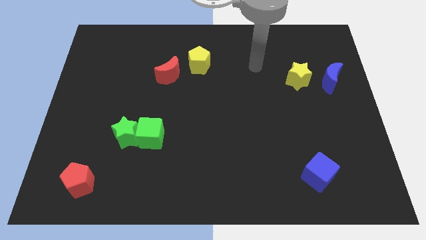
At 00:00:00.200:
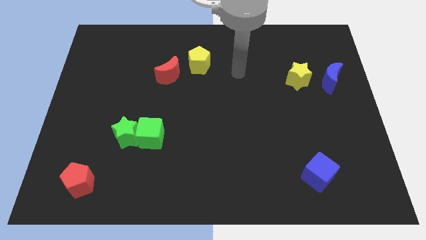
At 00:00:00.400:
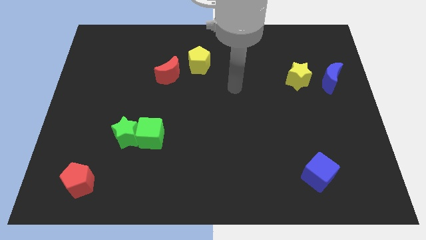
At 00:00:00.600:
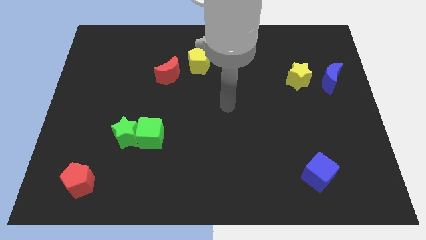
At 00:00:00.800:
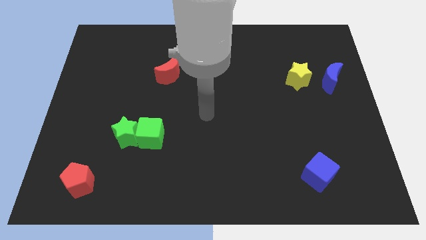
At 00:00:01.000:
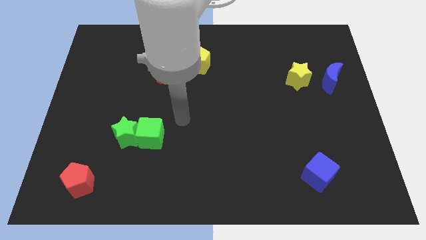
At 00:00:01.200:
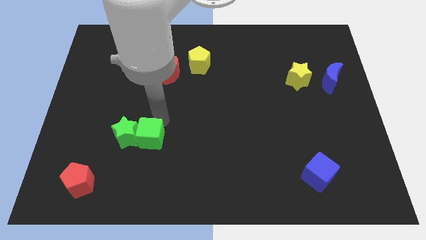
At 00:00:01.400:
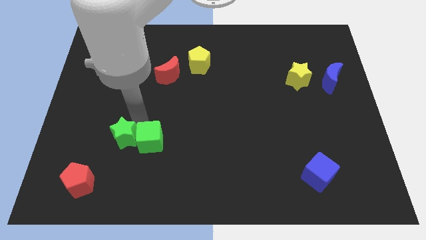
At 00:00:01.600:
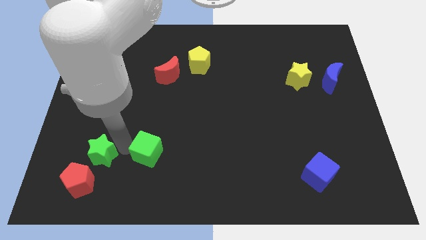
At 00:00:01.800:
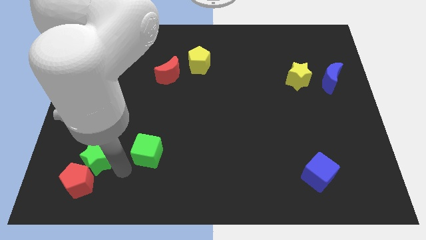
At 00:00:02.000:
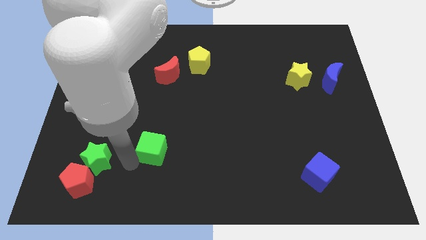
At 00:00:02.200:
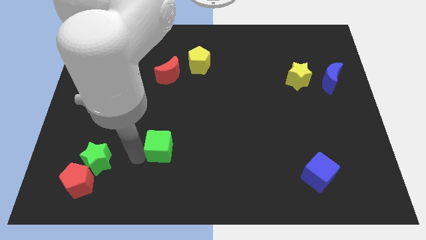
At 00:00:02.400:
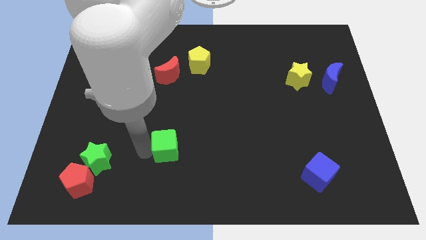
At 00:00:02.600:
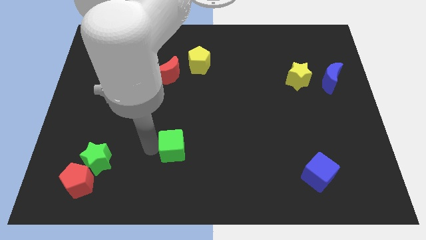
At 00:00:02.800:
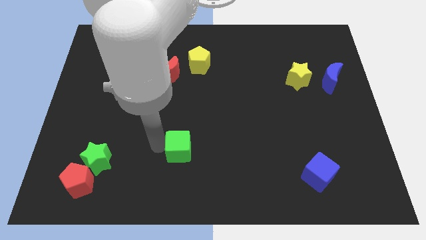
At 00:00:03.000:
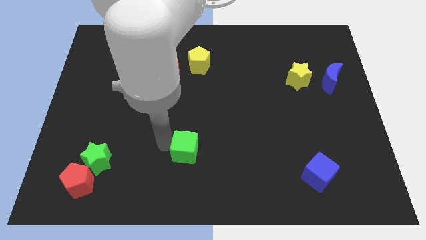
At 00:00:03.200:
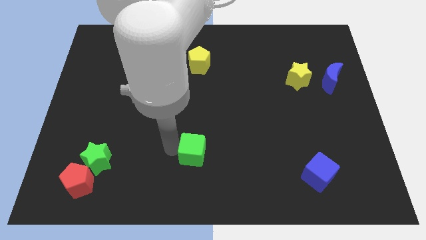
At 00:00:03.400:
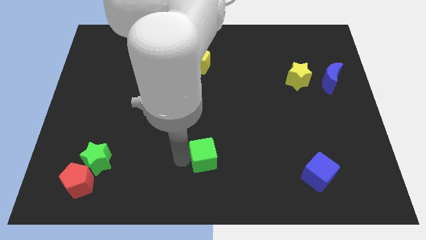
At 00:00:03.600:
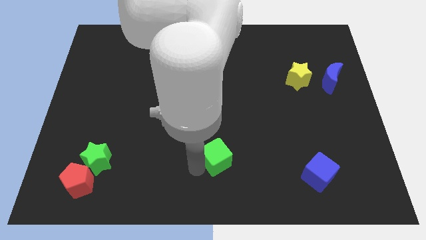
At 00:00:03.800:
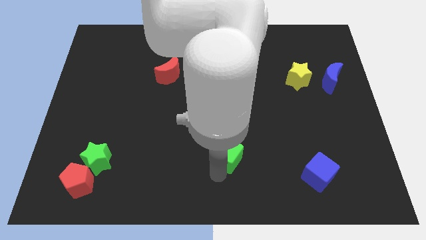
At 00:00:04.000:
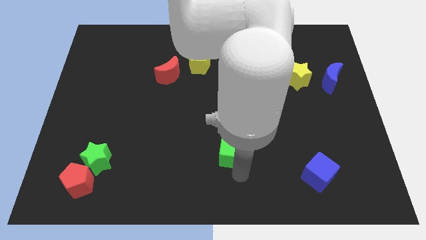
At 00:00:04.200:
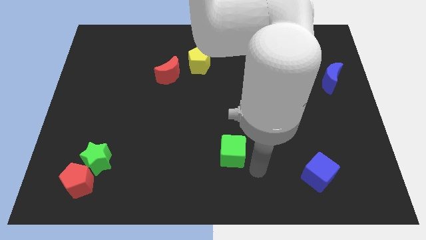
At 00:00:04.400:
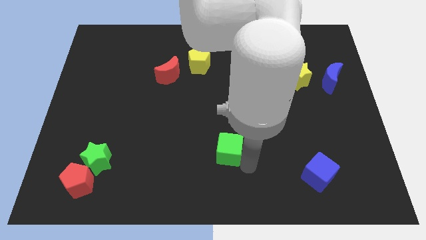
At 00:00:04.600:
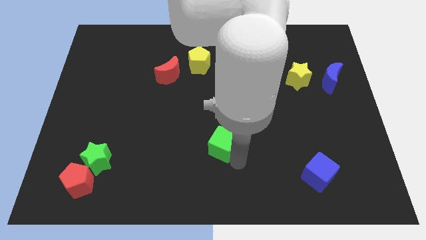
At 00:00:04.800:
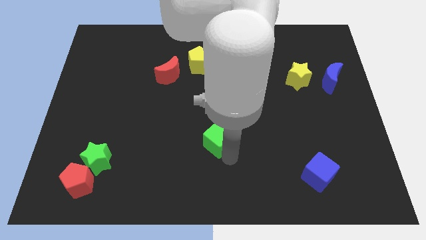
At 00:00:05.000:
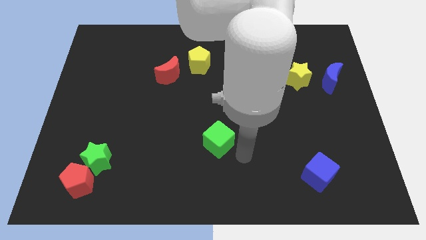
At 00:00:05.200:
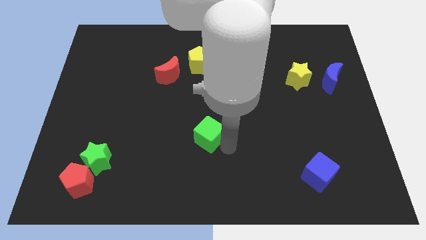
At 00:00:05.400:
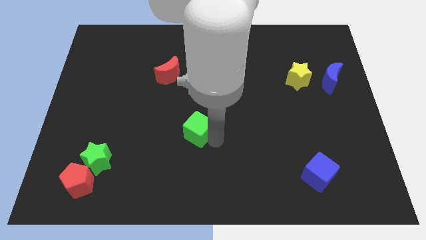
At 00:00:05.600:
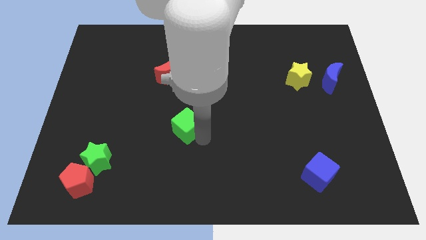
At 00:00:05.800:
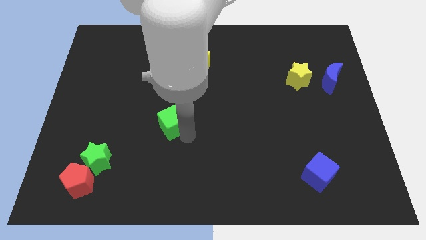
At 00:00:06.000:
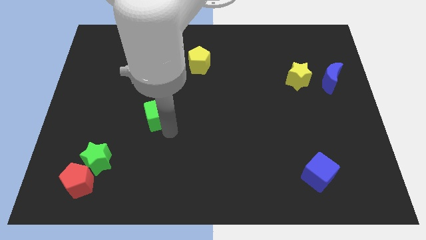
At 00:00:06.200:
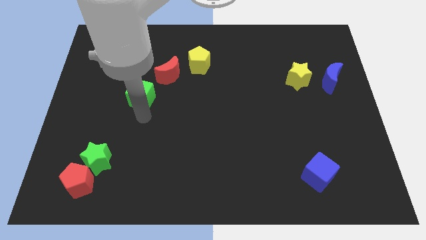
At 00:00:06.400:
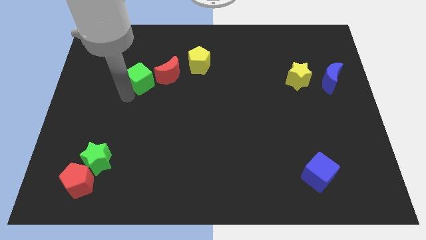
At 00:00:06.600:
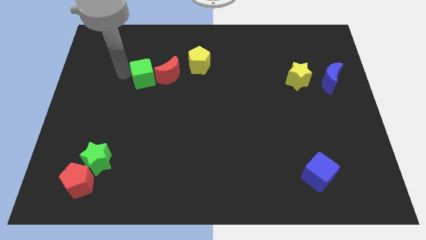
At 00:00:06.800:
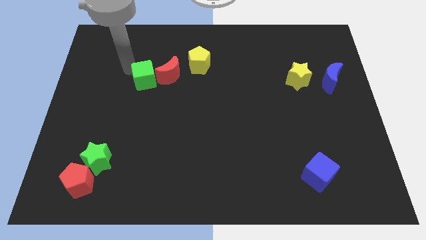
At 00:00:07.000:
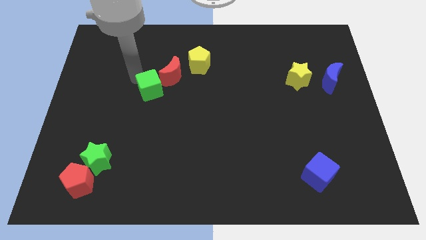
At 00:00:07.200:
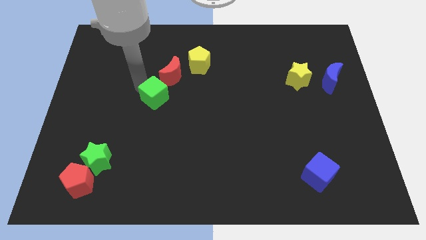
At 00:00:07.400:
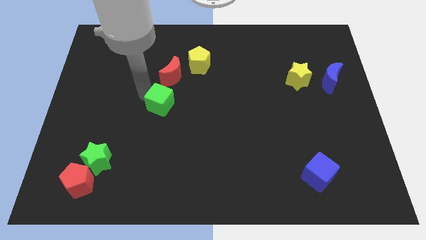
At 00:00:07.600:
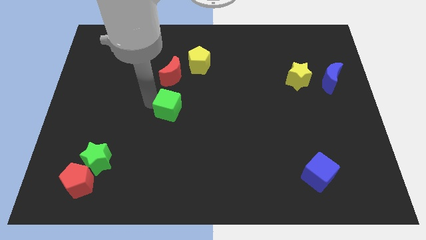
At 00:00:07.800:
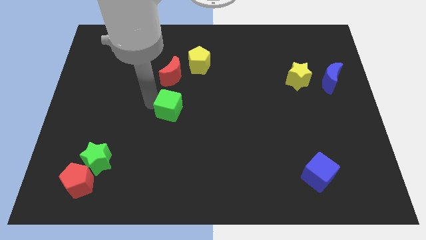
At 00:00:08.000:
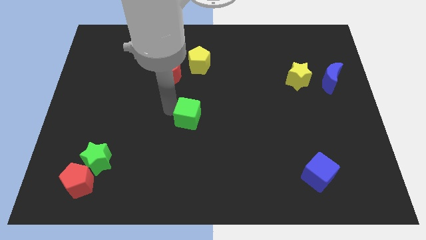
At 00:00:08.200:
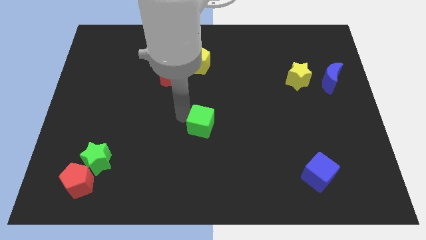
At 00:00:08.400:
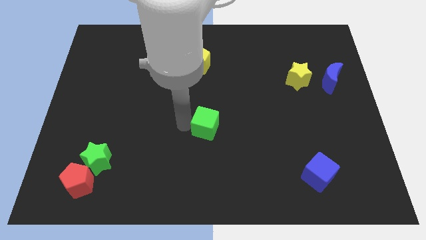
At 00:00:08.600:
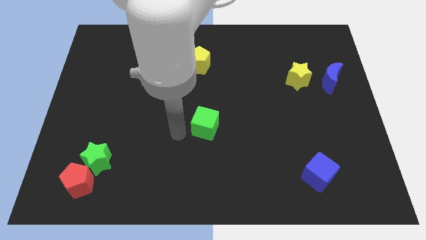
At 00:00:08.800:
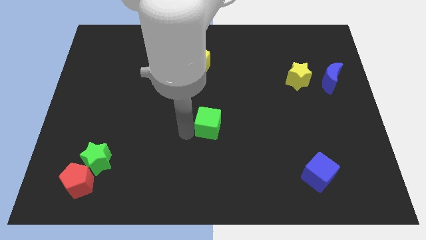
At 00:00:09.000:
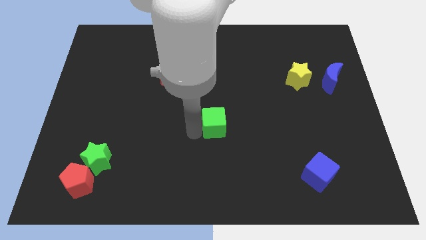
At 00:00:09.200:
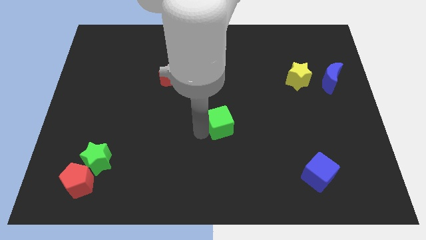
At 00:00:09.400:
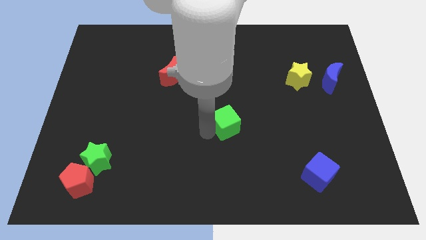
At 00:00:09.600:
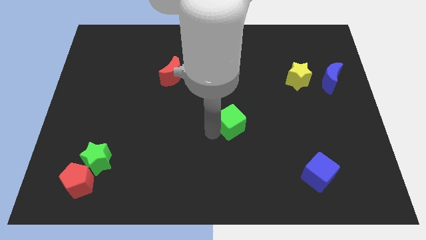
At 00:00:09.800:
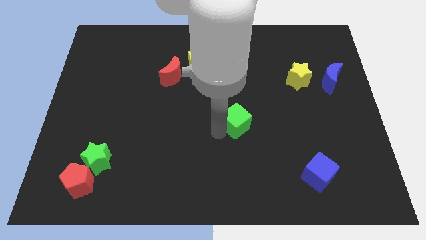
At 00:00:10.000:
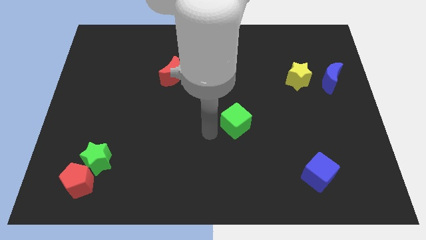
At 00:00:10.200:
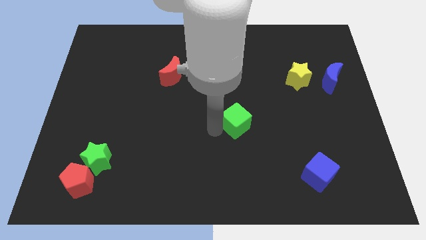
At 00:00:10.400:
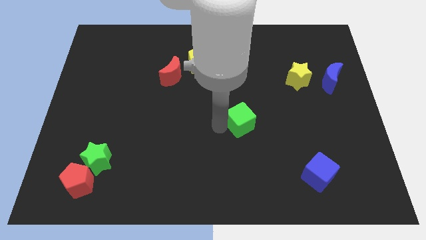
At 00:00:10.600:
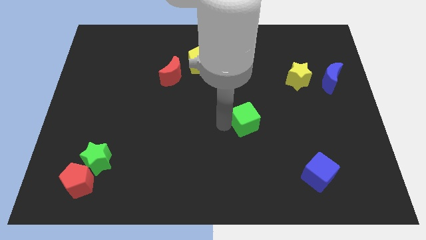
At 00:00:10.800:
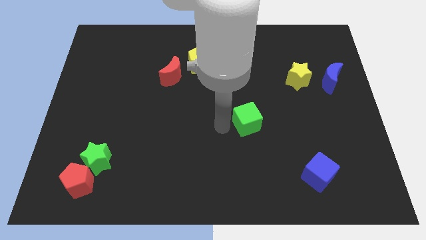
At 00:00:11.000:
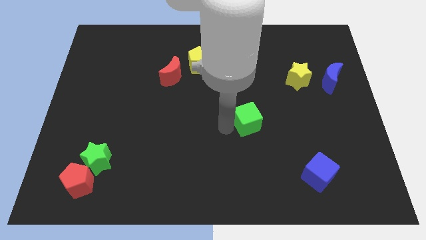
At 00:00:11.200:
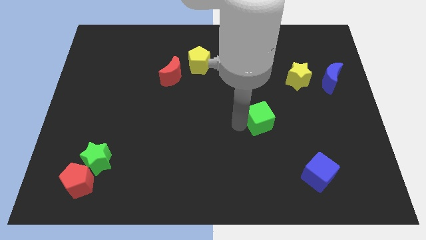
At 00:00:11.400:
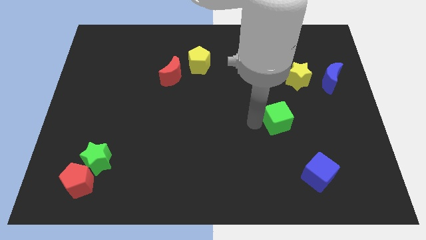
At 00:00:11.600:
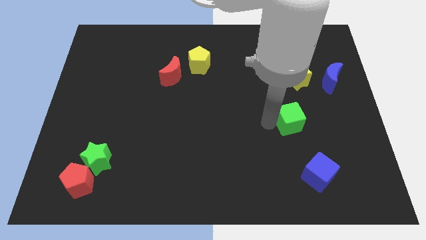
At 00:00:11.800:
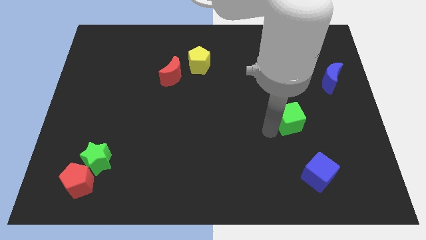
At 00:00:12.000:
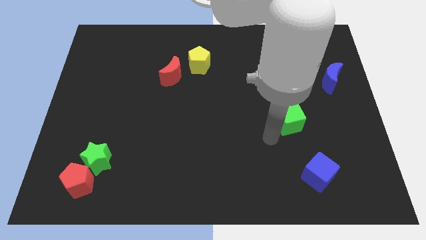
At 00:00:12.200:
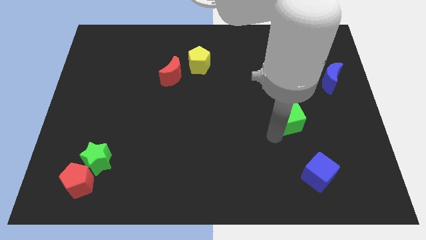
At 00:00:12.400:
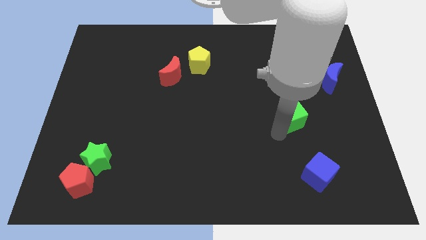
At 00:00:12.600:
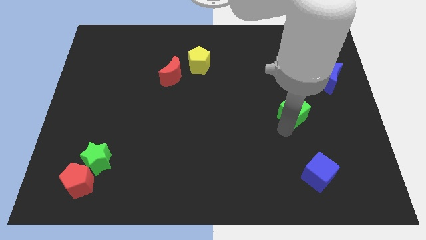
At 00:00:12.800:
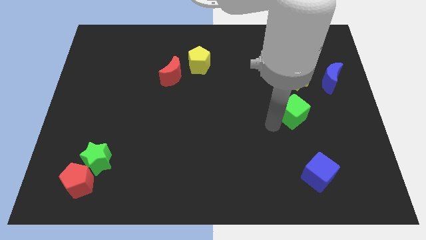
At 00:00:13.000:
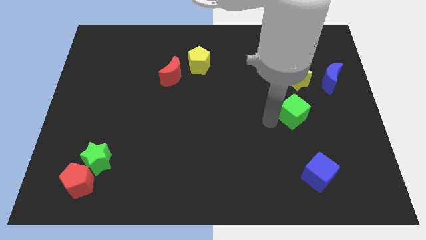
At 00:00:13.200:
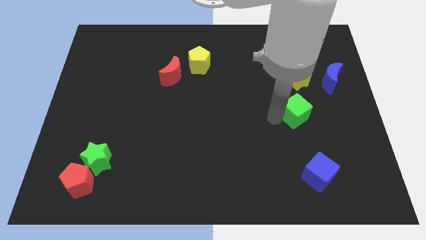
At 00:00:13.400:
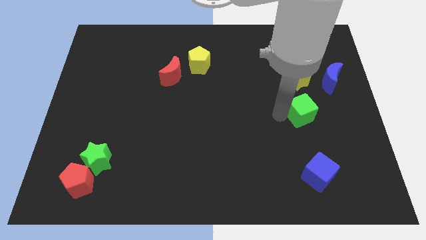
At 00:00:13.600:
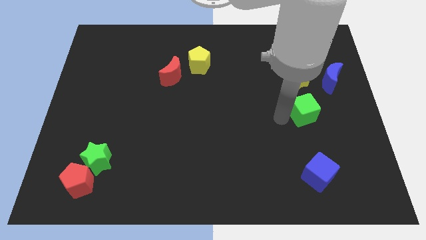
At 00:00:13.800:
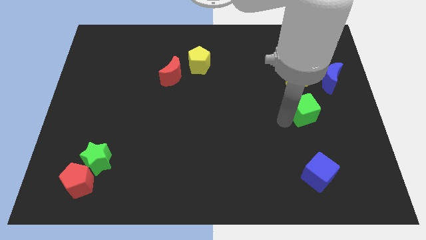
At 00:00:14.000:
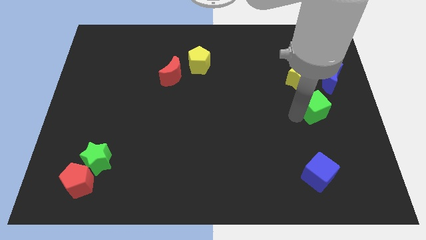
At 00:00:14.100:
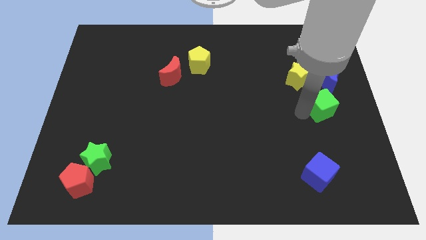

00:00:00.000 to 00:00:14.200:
slide the green cube to the right side
